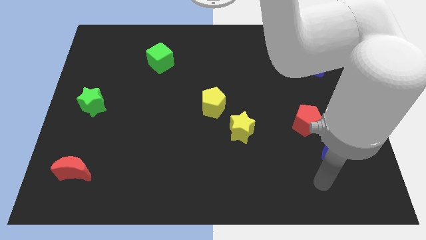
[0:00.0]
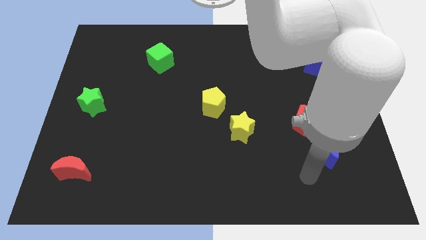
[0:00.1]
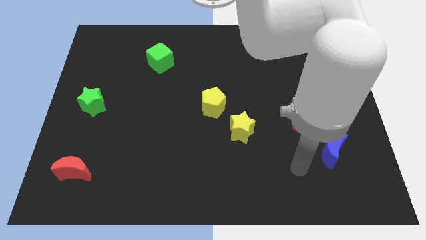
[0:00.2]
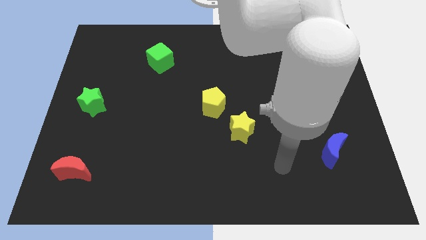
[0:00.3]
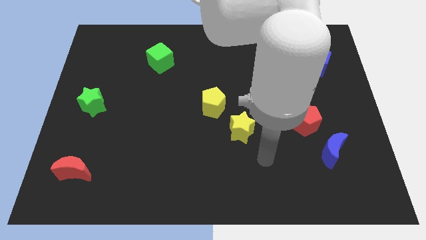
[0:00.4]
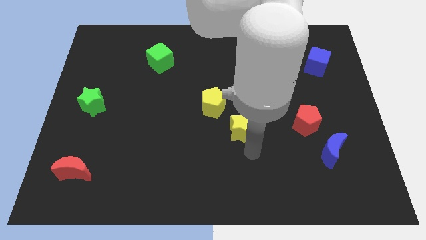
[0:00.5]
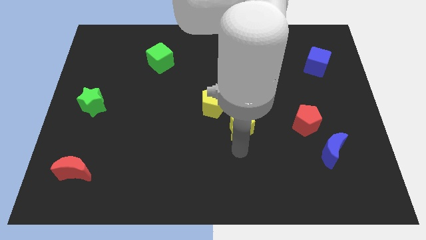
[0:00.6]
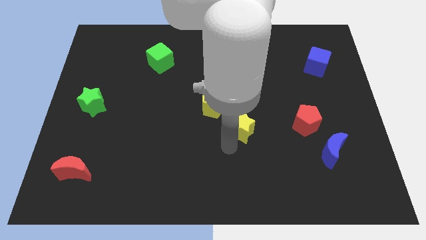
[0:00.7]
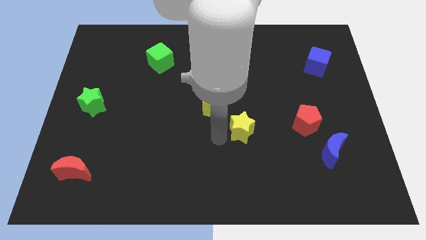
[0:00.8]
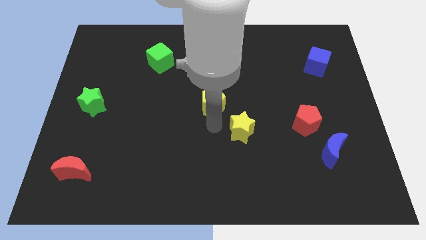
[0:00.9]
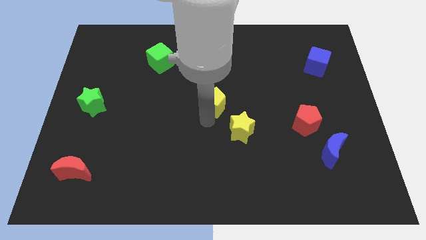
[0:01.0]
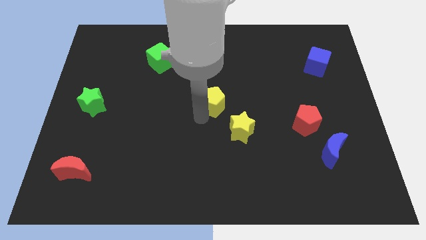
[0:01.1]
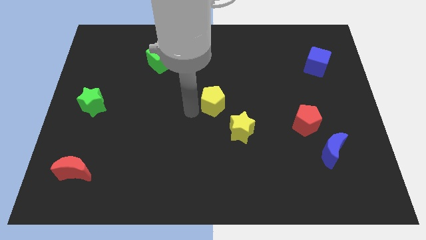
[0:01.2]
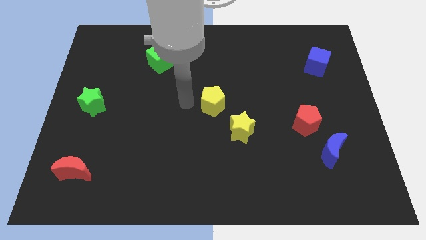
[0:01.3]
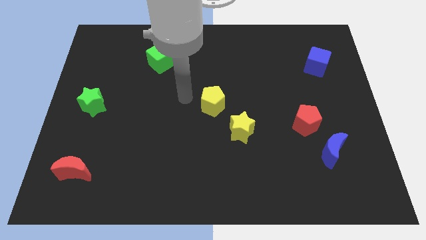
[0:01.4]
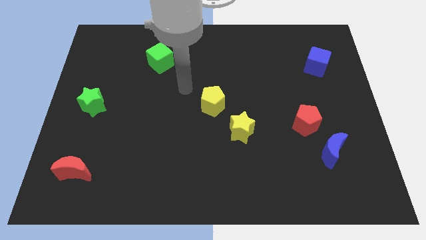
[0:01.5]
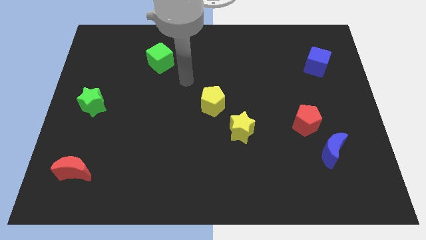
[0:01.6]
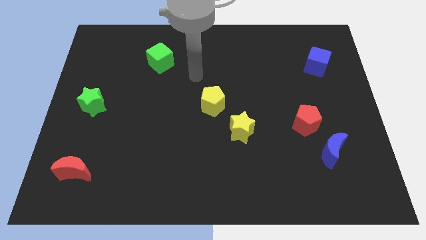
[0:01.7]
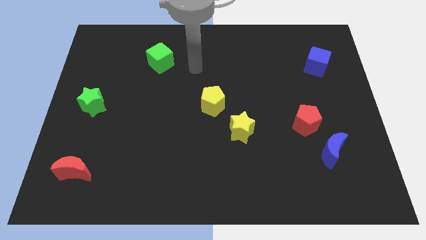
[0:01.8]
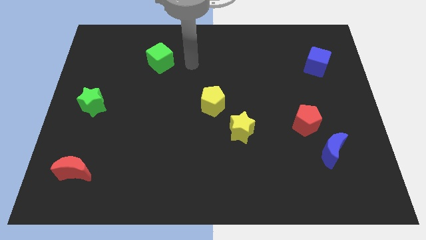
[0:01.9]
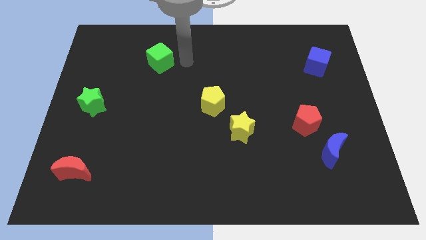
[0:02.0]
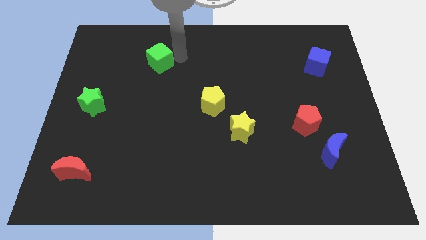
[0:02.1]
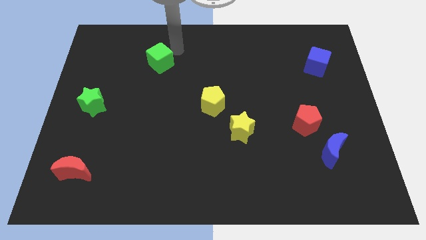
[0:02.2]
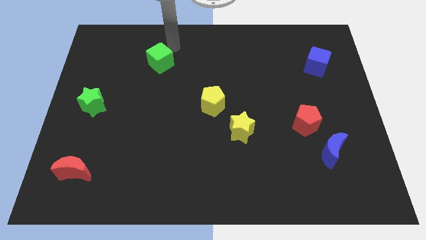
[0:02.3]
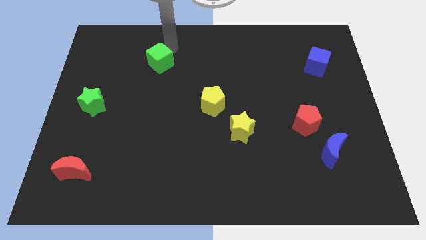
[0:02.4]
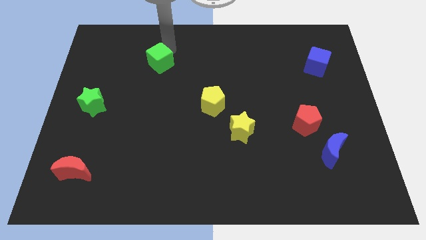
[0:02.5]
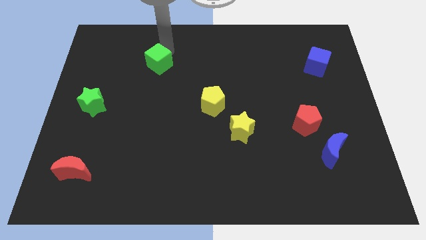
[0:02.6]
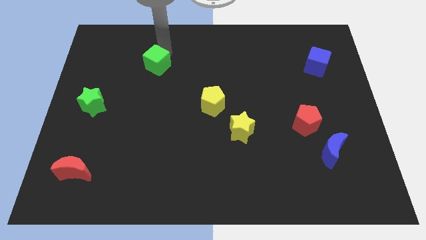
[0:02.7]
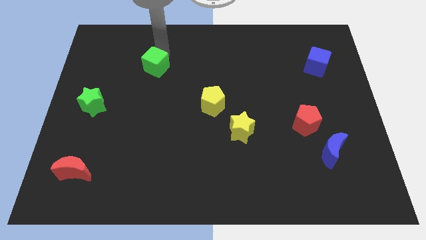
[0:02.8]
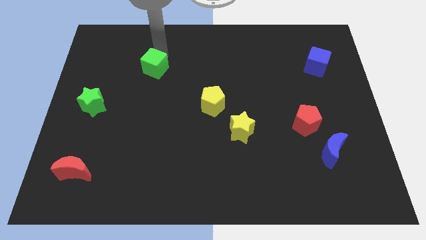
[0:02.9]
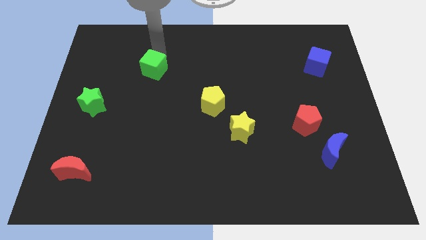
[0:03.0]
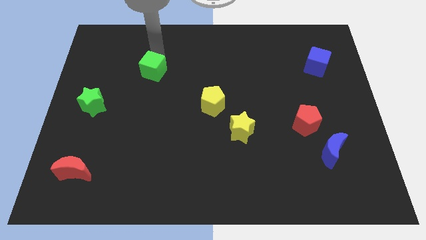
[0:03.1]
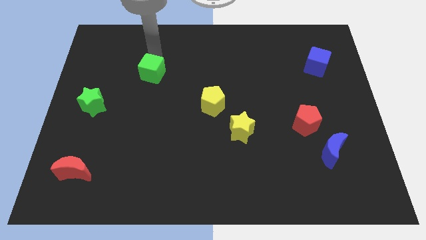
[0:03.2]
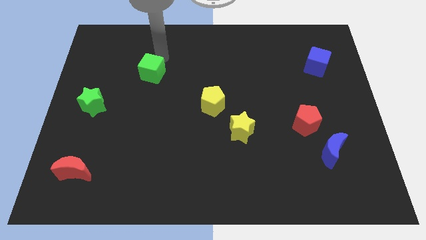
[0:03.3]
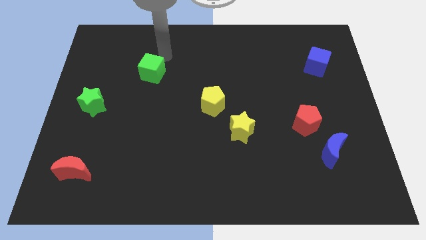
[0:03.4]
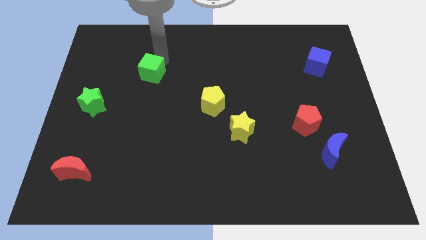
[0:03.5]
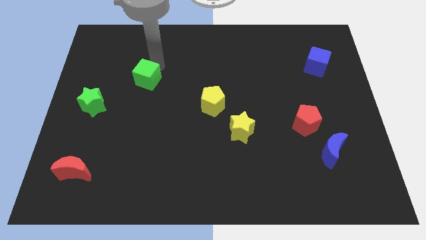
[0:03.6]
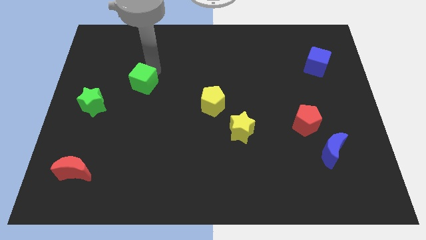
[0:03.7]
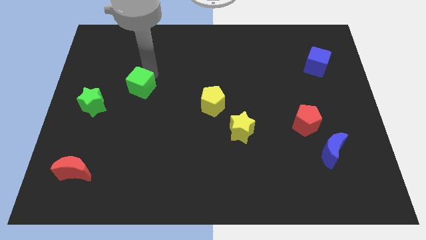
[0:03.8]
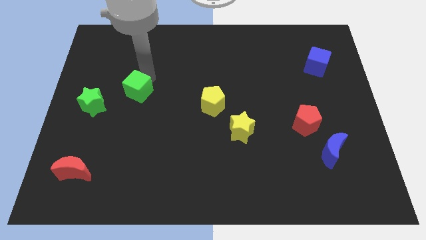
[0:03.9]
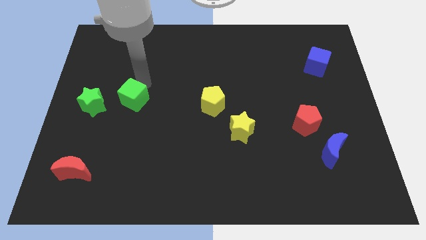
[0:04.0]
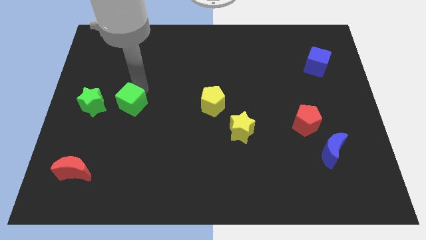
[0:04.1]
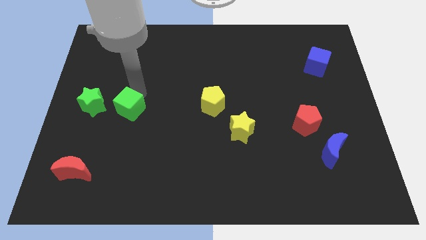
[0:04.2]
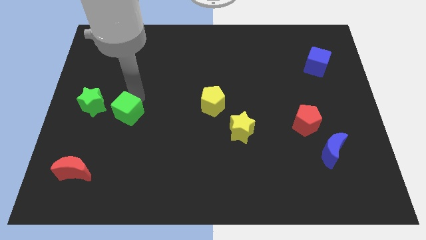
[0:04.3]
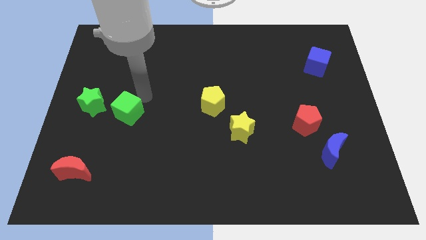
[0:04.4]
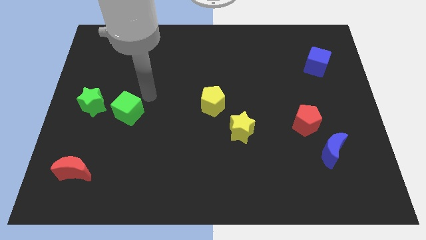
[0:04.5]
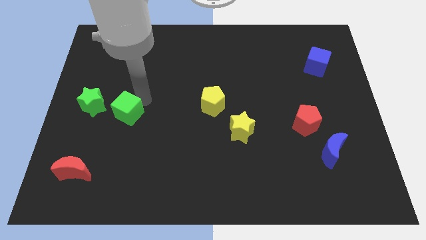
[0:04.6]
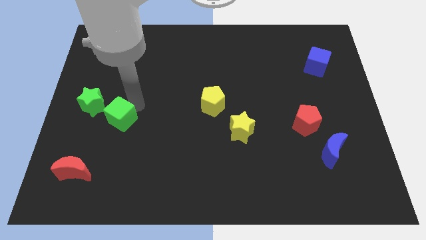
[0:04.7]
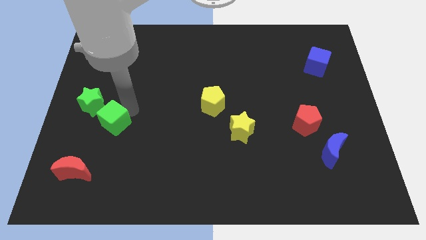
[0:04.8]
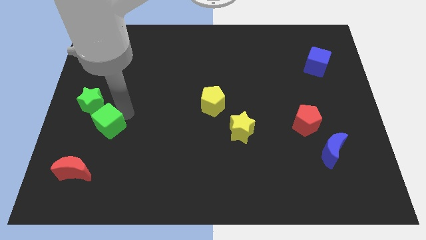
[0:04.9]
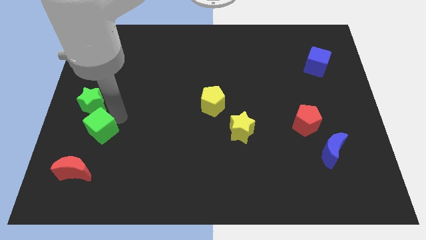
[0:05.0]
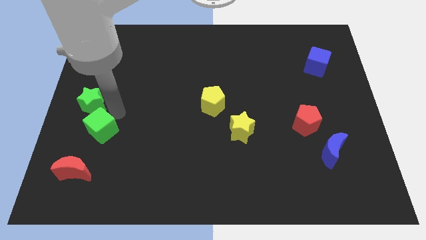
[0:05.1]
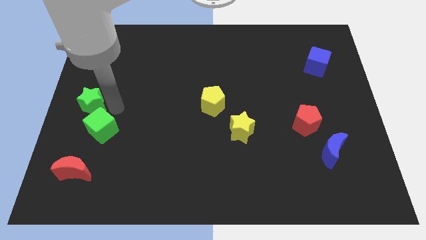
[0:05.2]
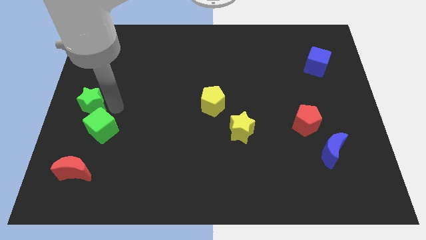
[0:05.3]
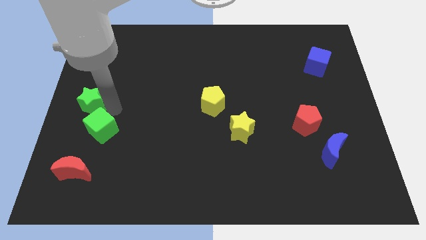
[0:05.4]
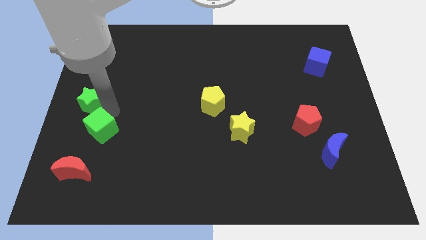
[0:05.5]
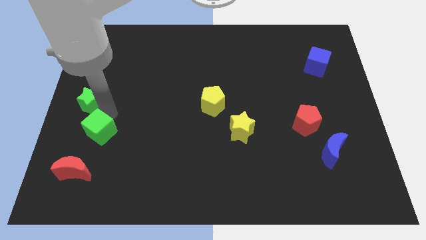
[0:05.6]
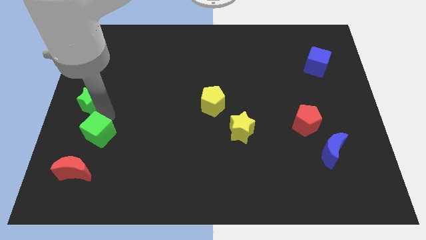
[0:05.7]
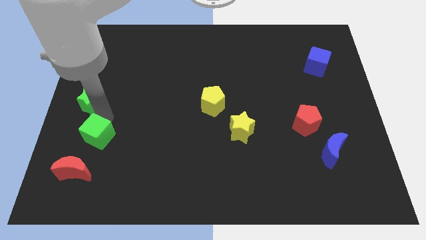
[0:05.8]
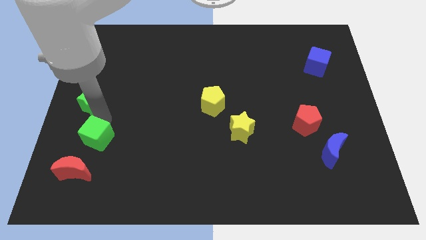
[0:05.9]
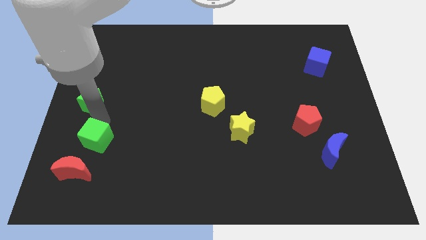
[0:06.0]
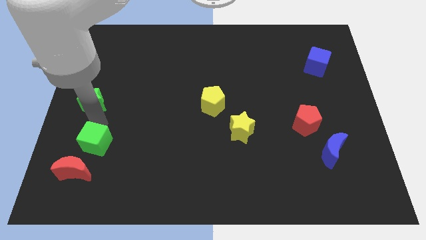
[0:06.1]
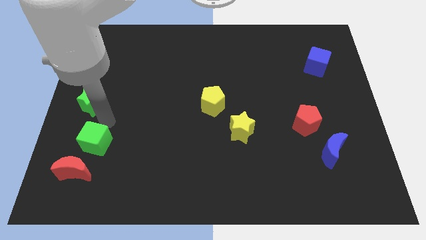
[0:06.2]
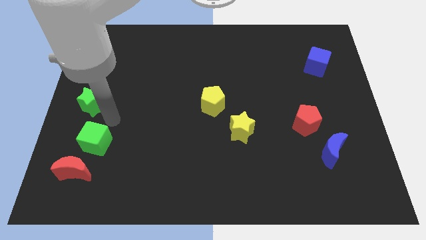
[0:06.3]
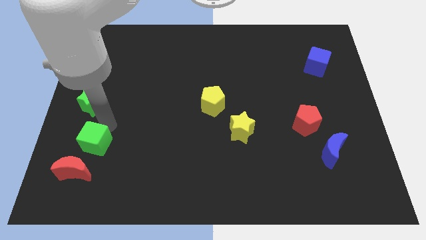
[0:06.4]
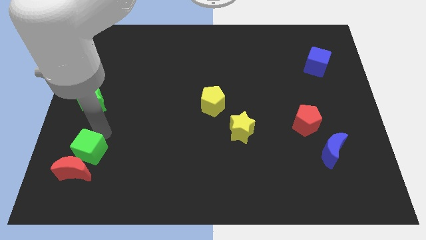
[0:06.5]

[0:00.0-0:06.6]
put the green cube to the red moon

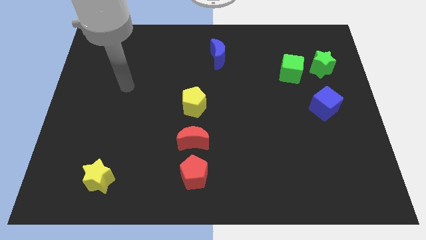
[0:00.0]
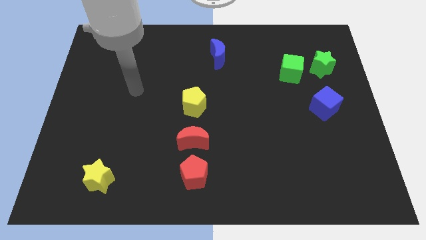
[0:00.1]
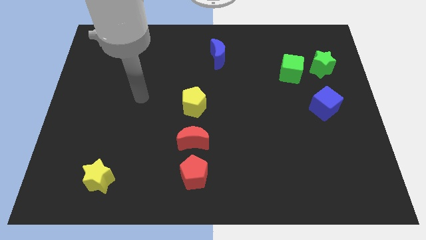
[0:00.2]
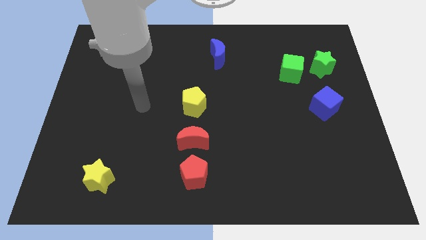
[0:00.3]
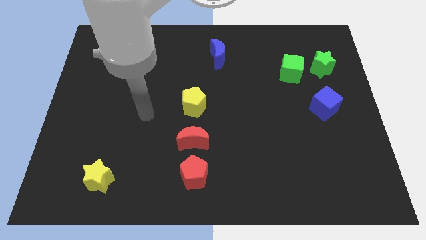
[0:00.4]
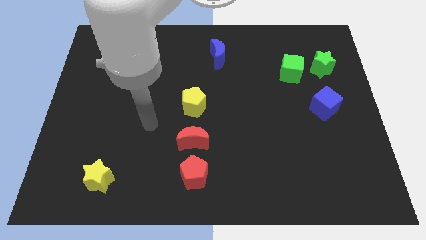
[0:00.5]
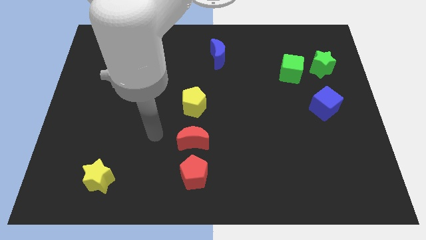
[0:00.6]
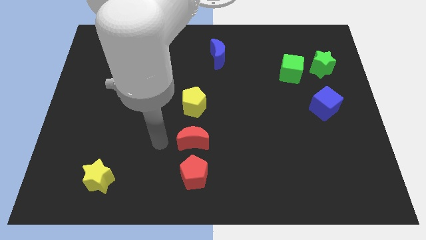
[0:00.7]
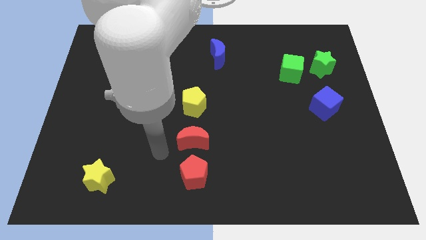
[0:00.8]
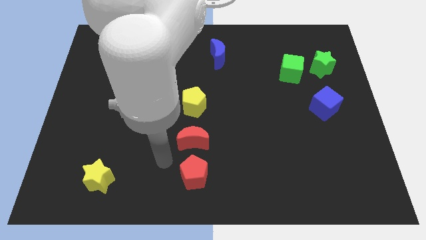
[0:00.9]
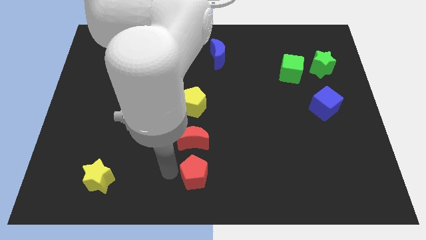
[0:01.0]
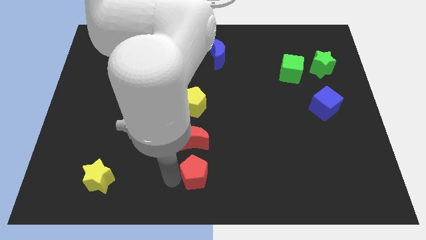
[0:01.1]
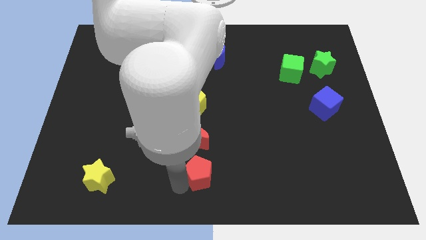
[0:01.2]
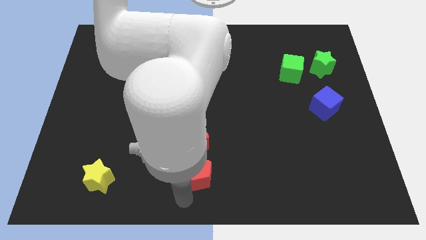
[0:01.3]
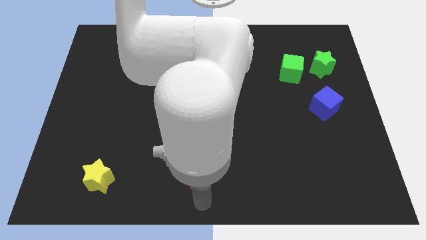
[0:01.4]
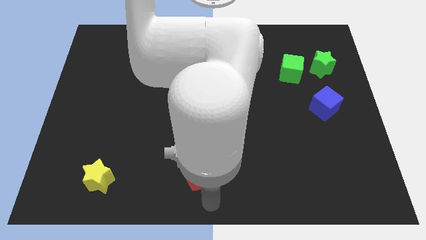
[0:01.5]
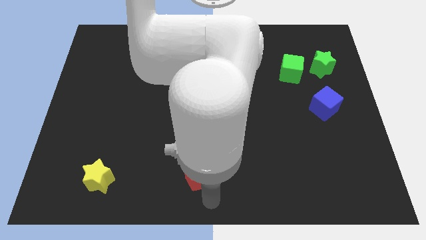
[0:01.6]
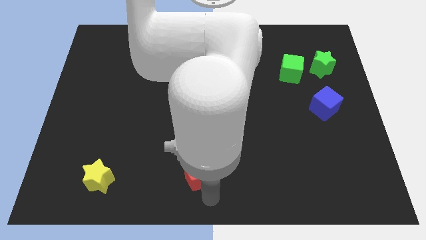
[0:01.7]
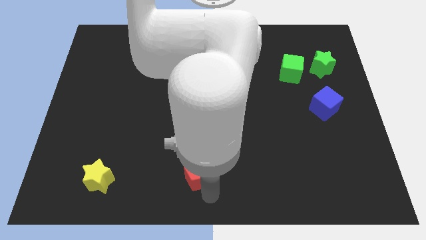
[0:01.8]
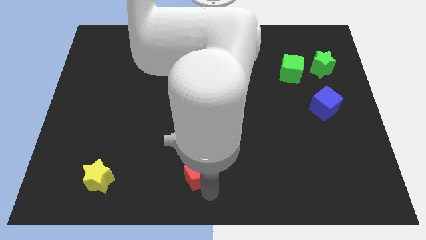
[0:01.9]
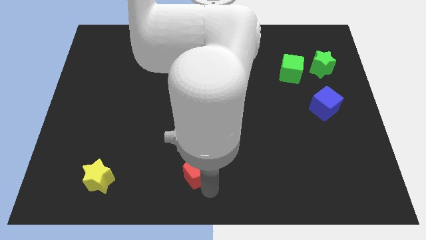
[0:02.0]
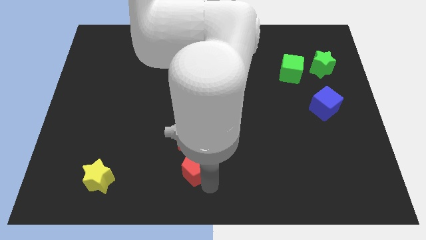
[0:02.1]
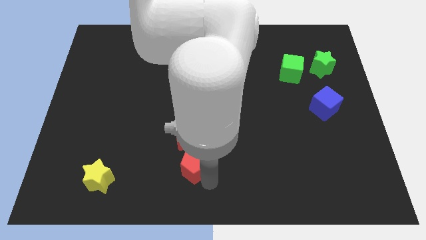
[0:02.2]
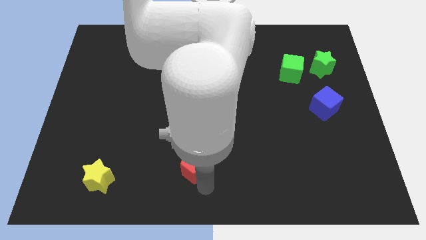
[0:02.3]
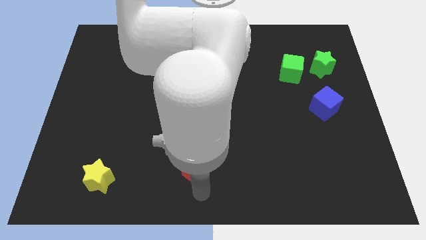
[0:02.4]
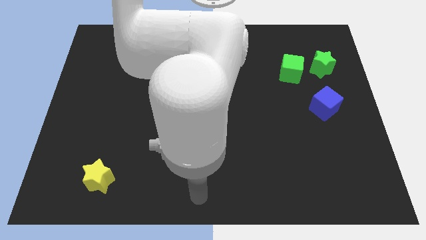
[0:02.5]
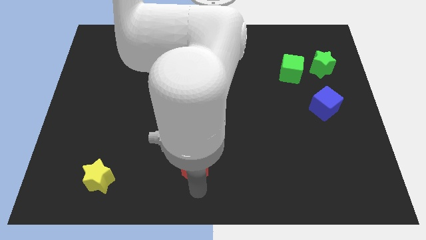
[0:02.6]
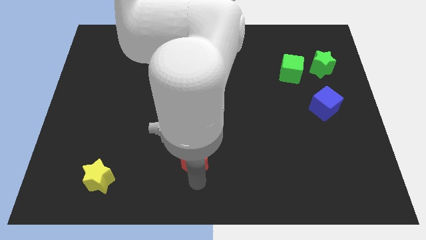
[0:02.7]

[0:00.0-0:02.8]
slide the red pentagon towards the red moon
